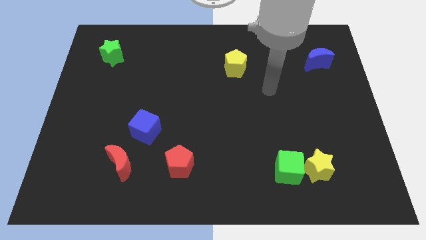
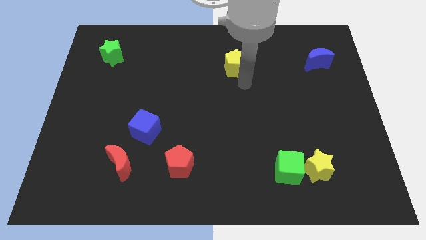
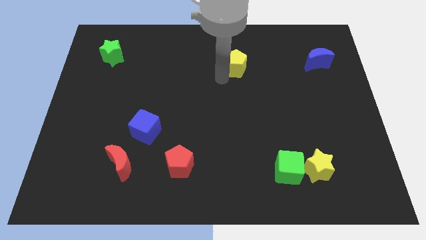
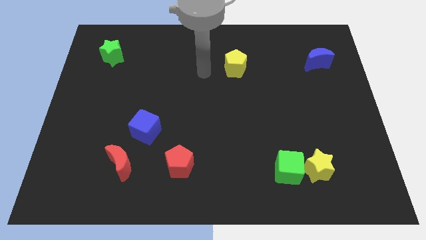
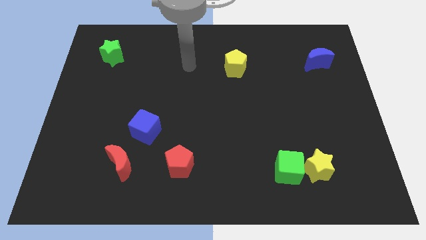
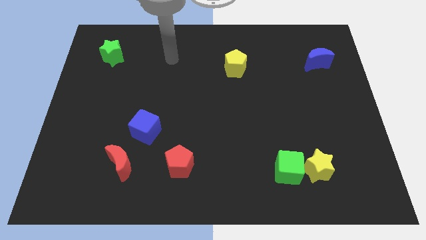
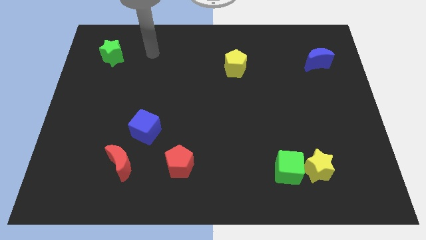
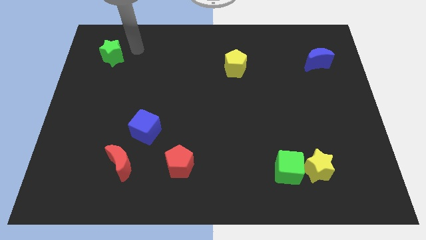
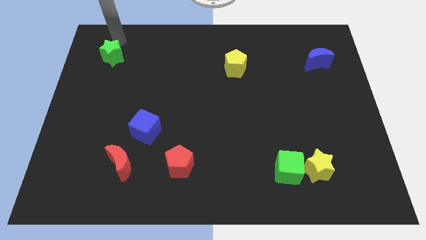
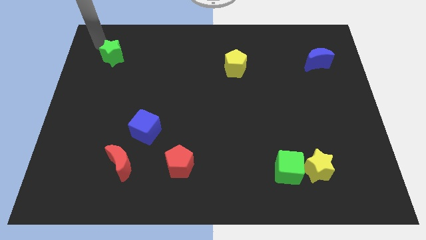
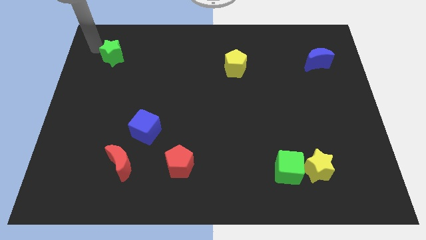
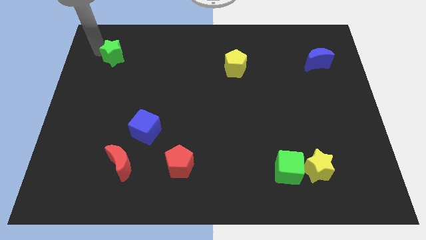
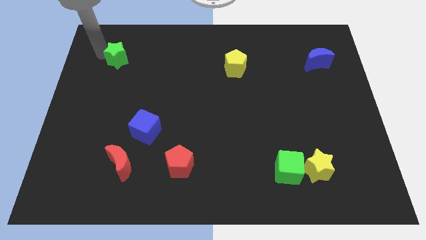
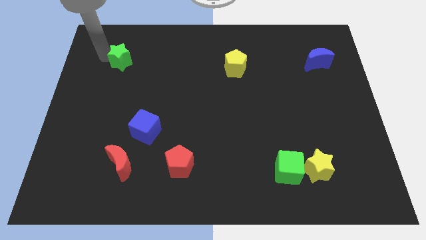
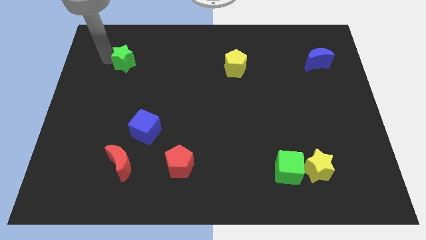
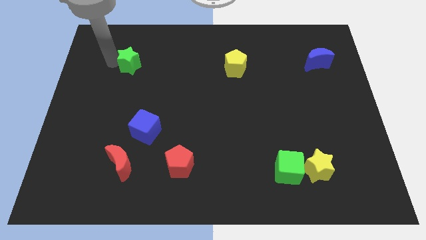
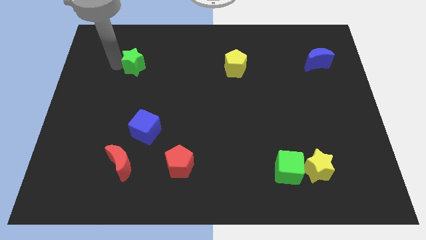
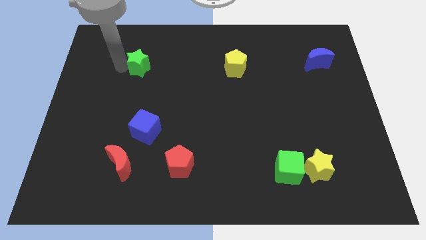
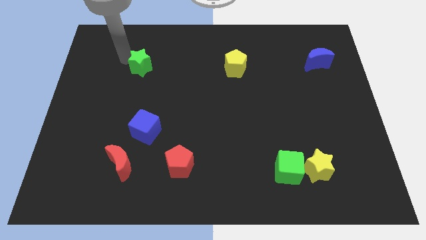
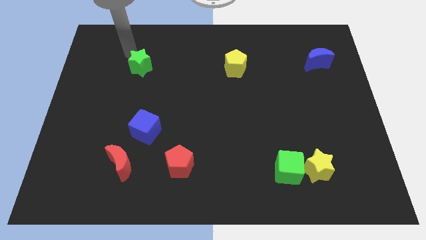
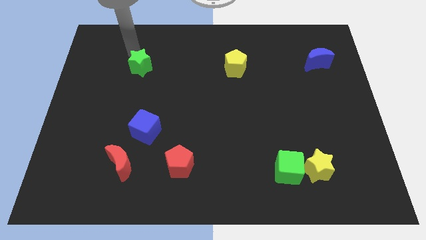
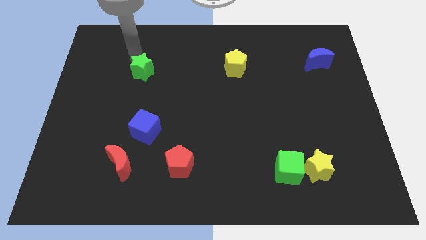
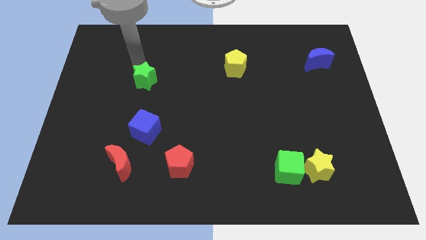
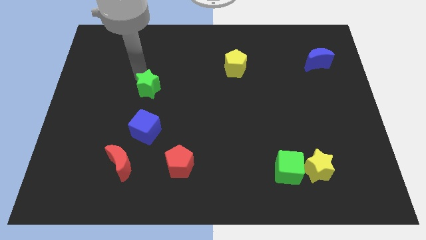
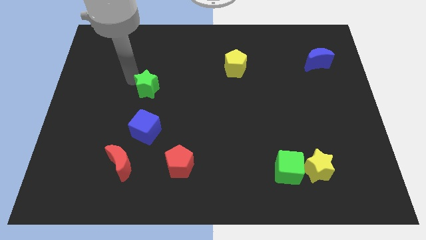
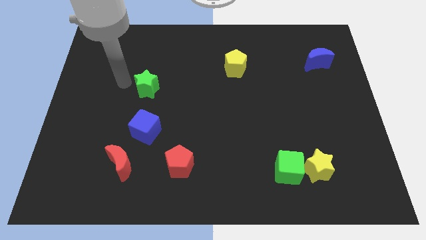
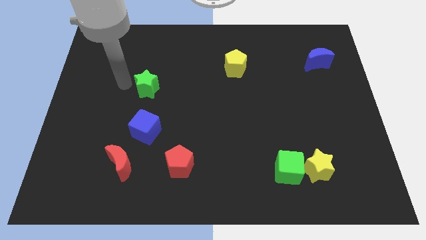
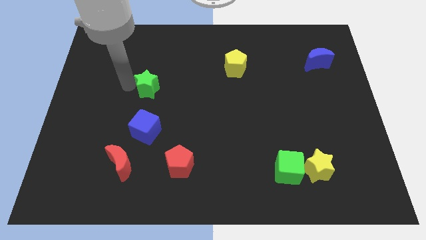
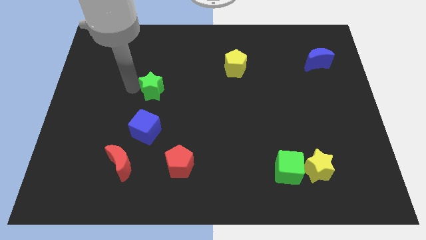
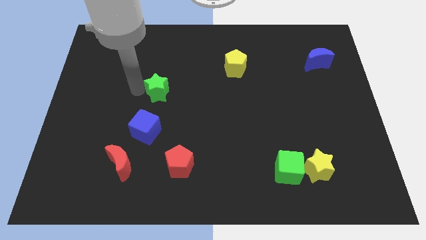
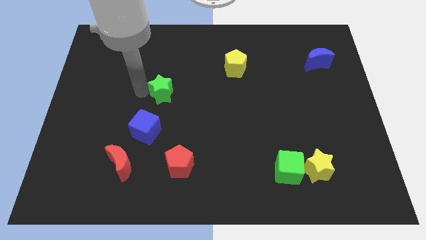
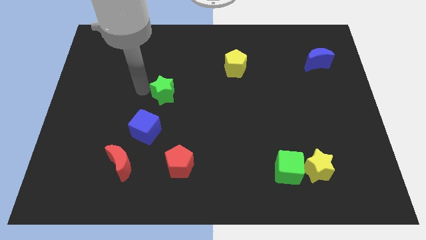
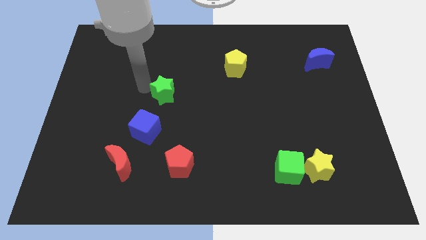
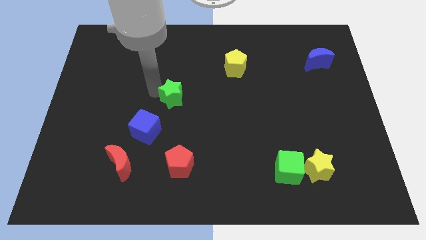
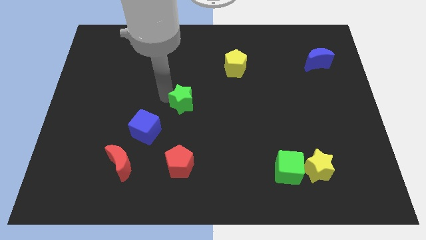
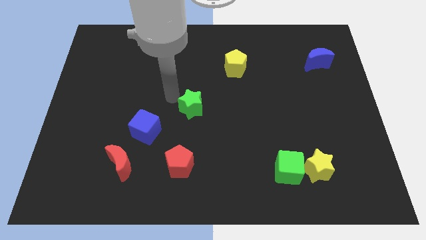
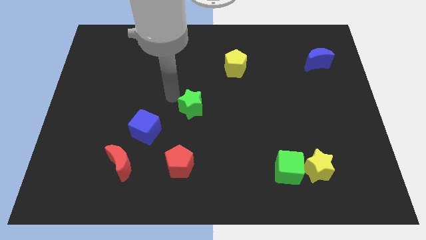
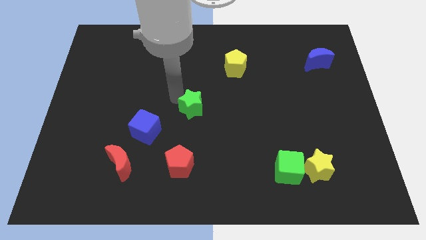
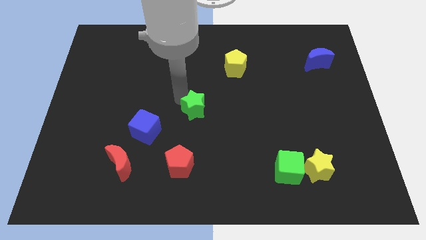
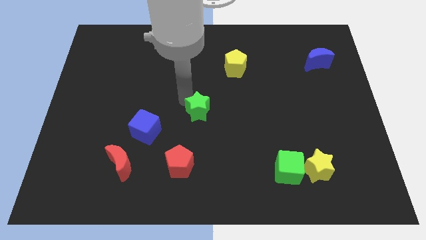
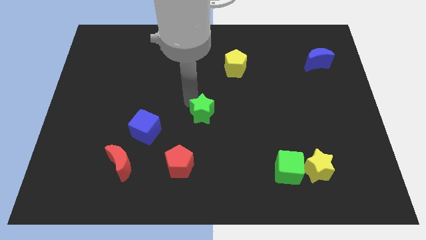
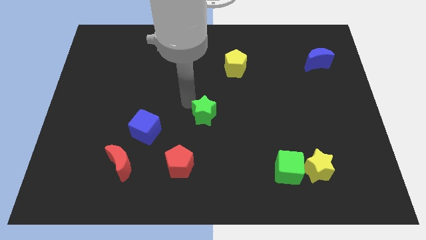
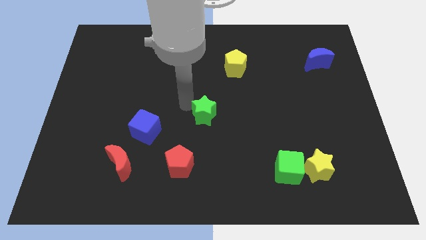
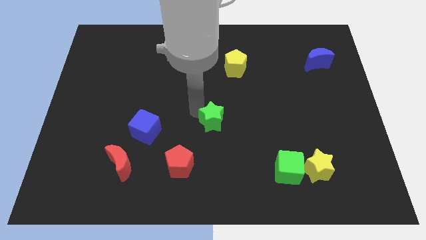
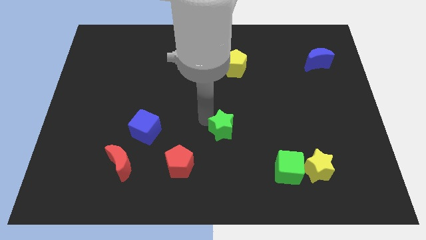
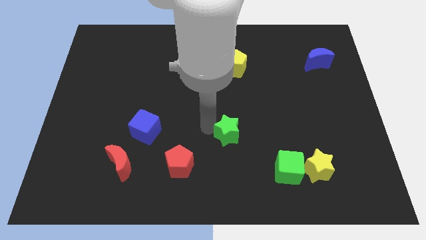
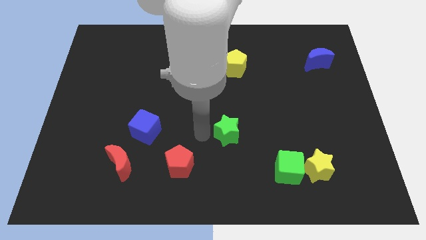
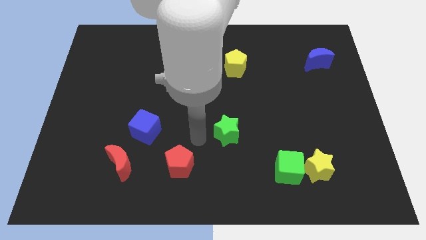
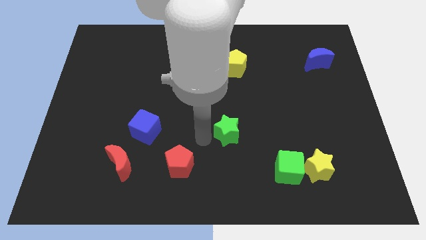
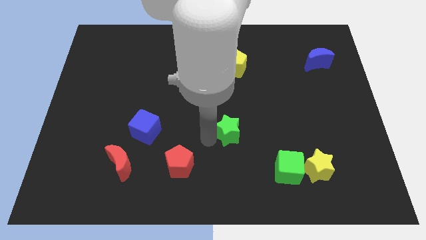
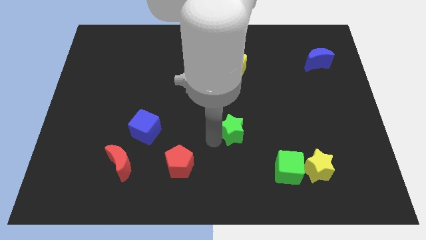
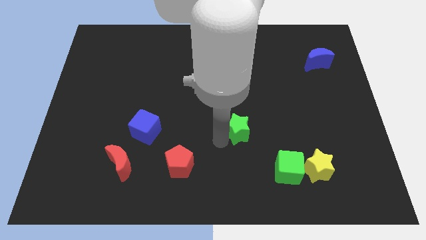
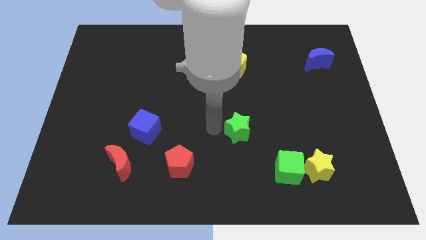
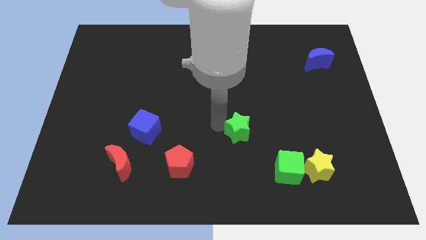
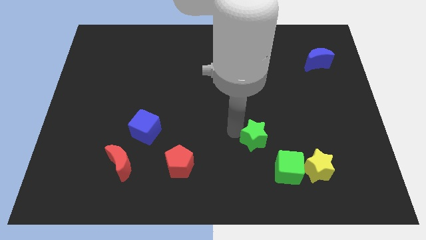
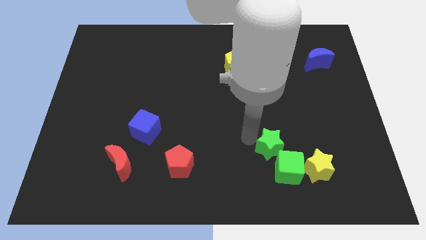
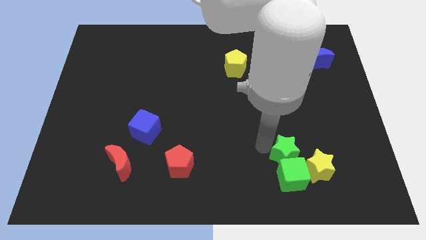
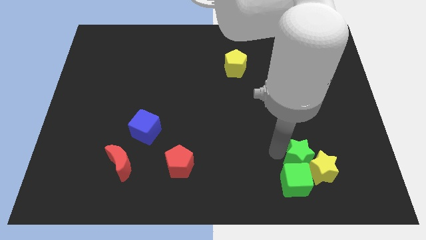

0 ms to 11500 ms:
move the green star close to the yellow star

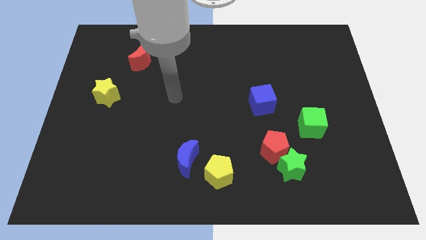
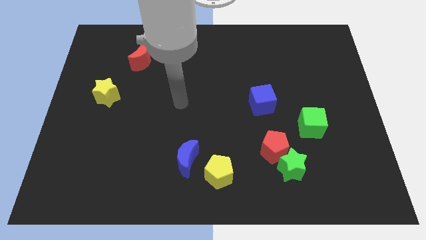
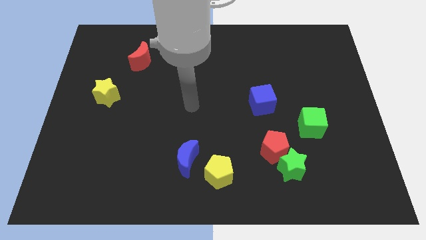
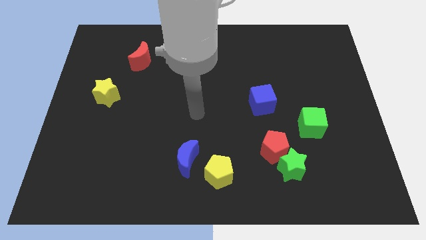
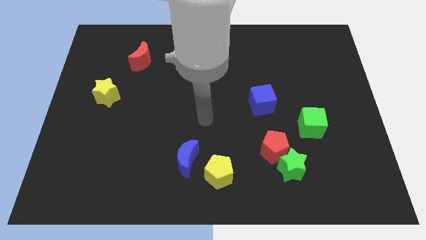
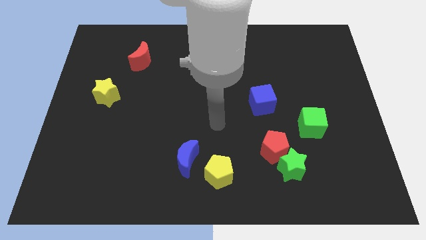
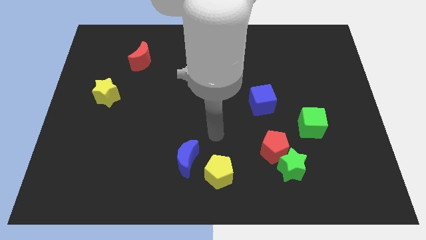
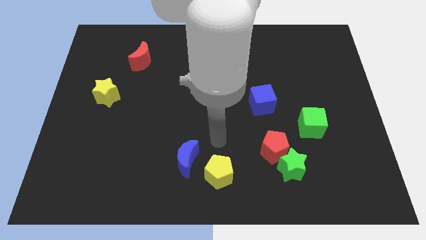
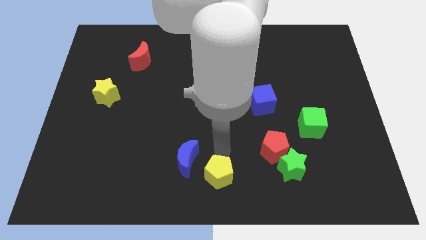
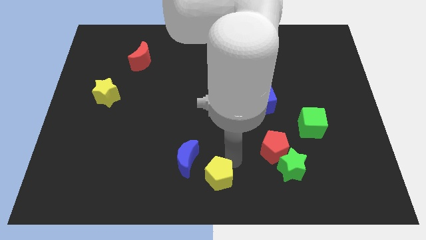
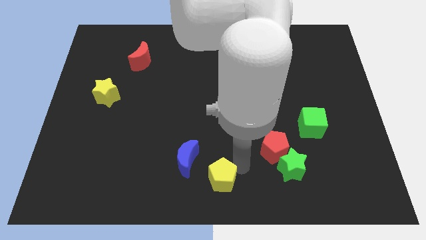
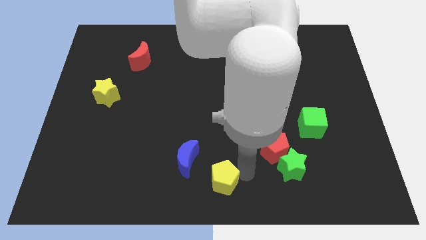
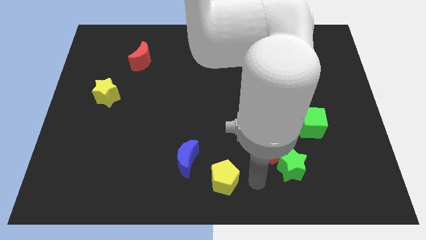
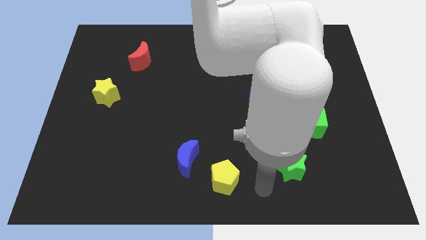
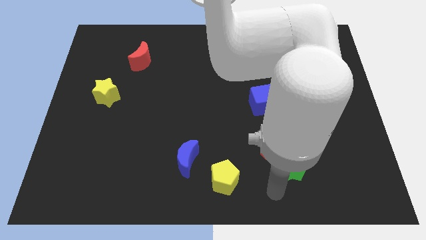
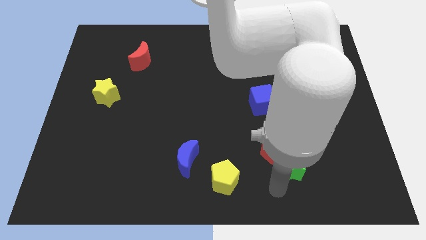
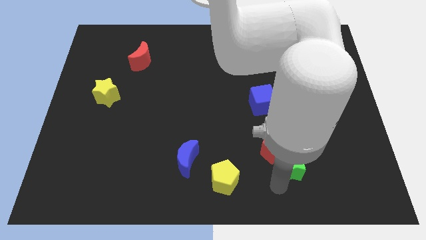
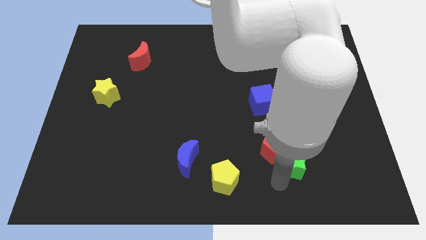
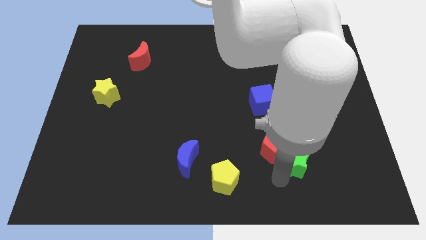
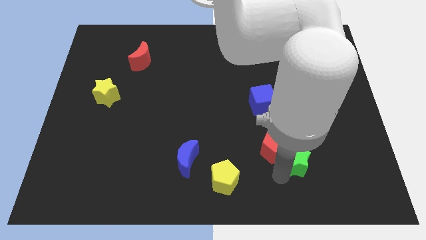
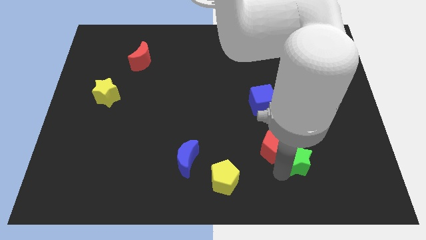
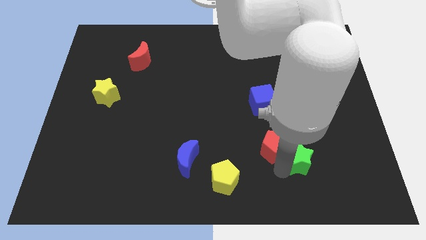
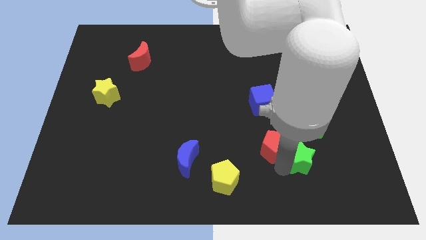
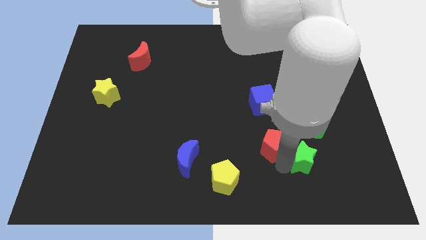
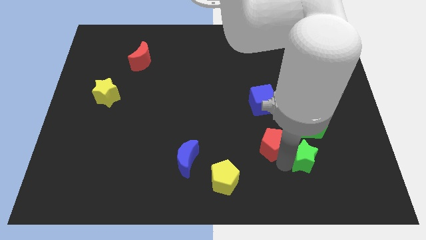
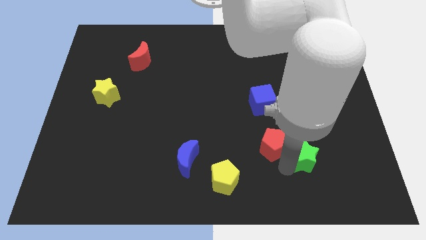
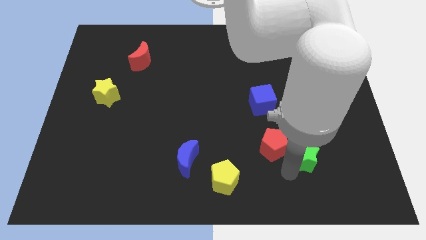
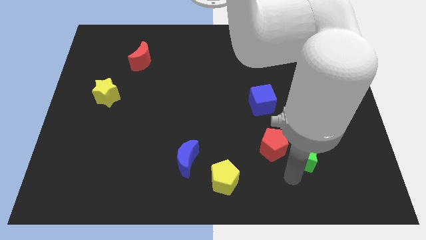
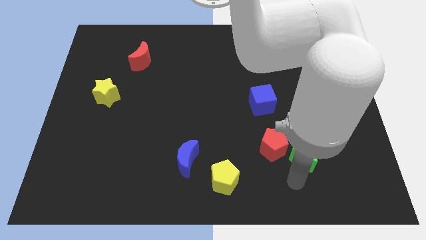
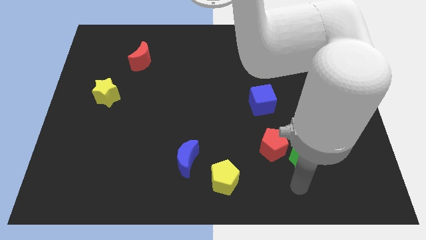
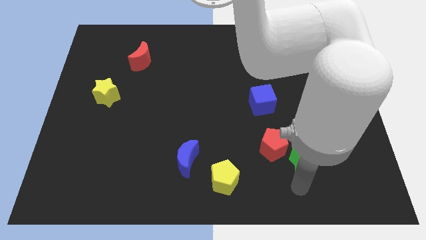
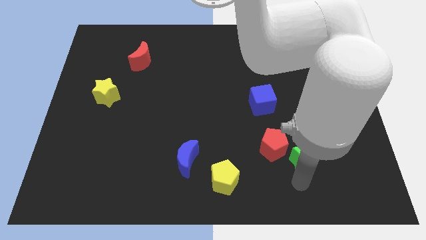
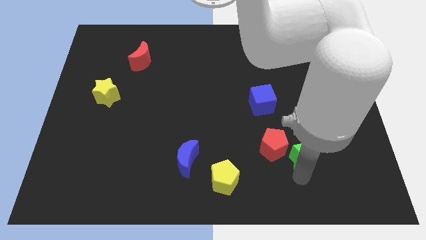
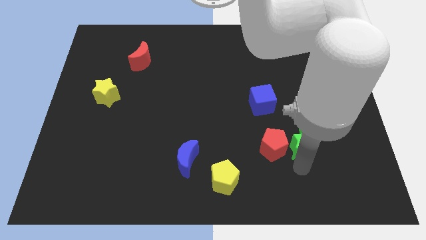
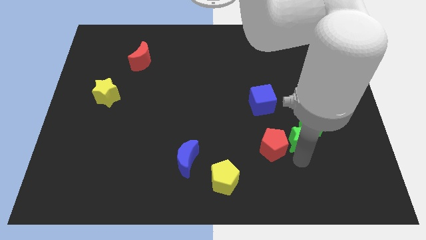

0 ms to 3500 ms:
push the green star towards the green cube
